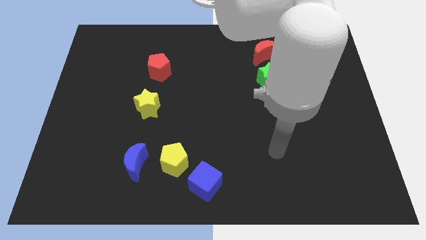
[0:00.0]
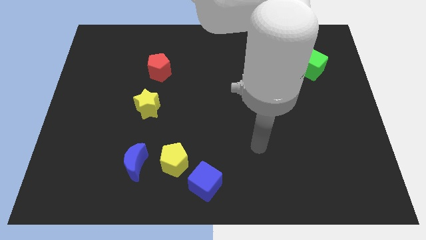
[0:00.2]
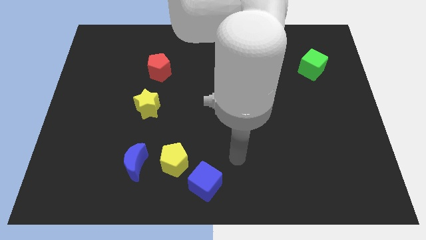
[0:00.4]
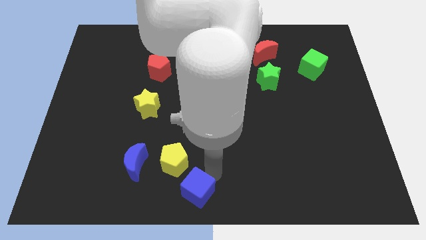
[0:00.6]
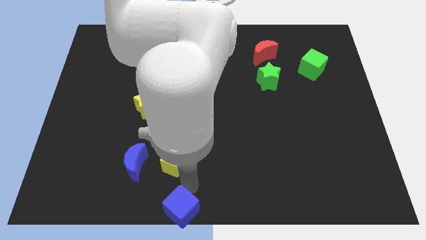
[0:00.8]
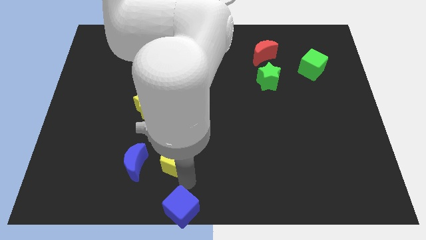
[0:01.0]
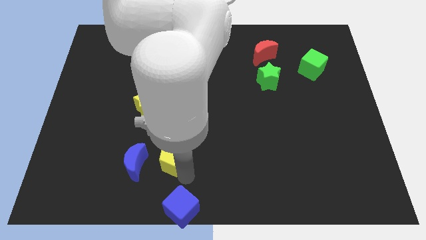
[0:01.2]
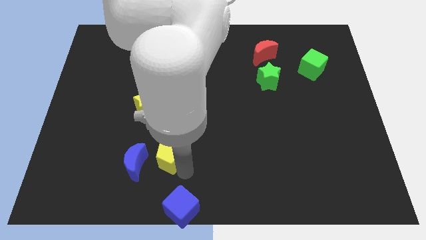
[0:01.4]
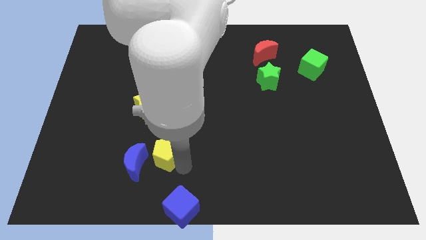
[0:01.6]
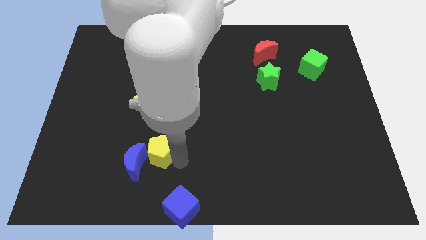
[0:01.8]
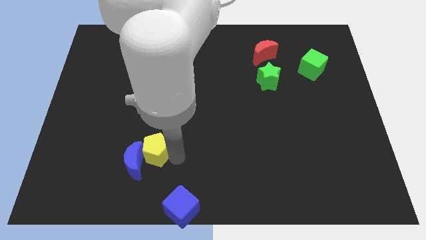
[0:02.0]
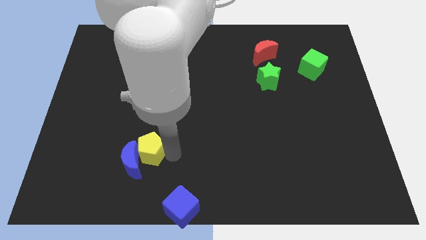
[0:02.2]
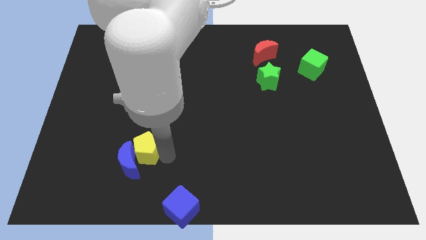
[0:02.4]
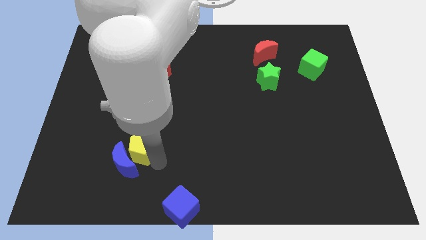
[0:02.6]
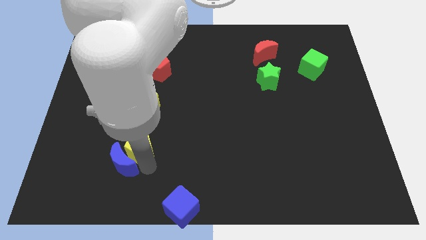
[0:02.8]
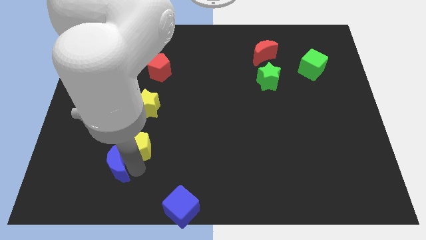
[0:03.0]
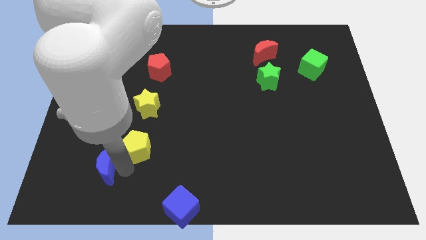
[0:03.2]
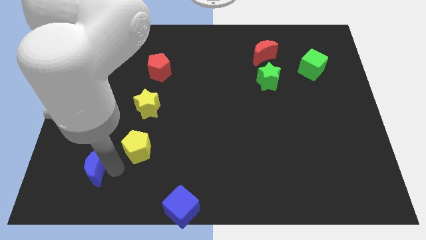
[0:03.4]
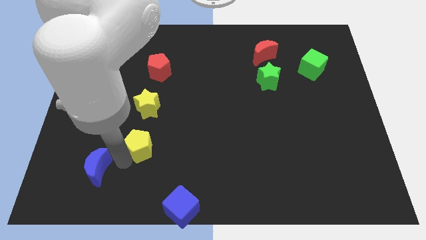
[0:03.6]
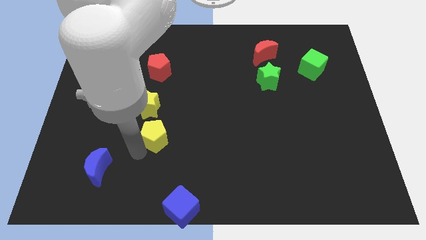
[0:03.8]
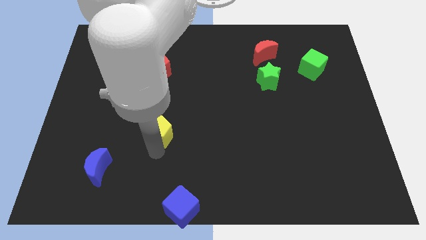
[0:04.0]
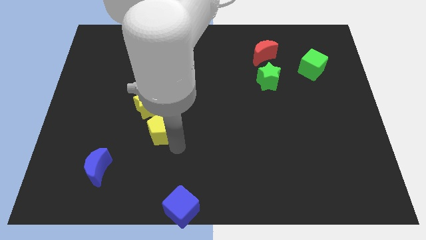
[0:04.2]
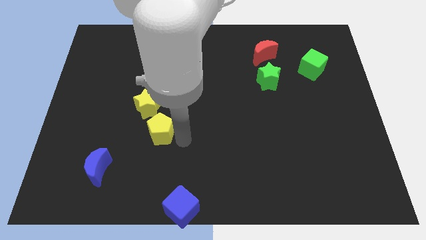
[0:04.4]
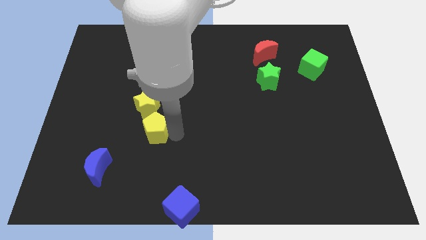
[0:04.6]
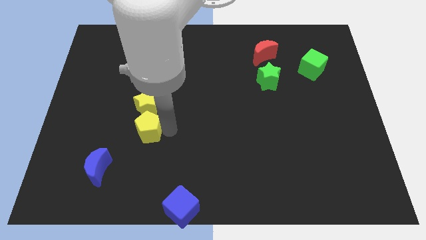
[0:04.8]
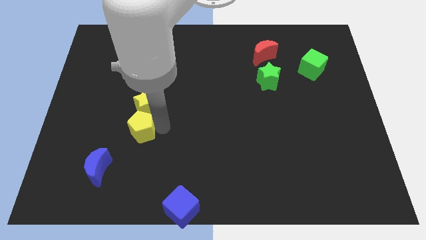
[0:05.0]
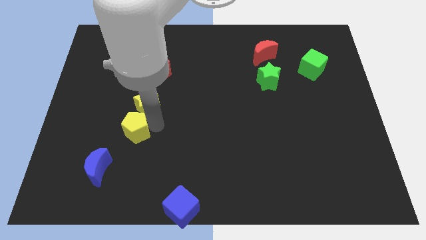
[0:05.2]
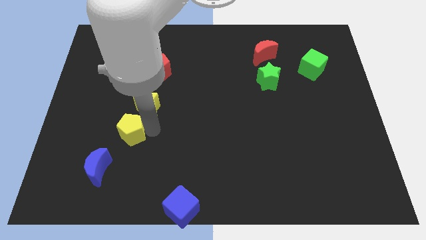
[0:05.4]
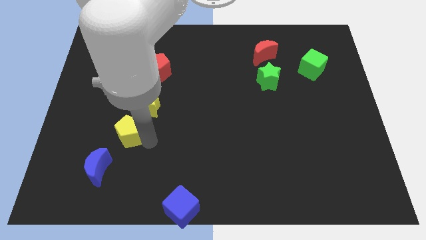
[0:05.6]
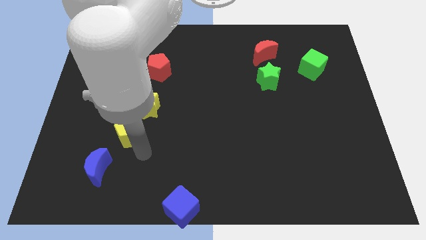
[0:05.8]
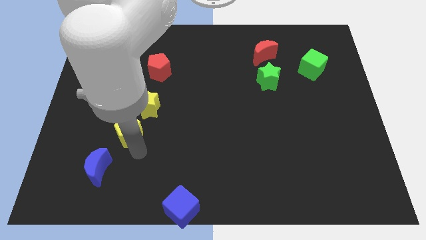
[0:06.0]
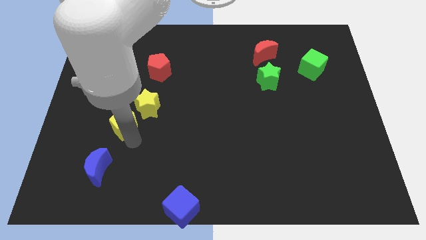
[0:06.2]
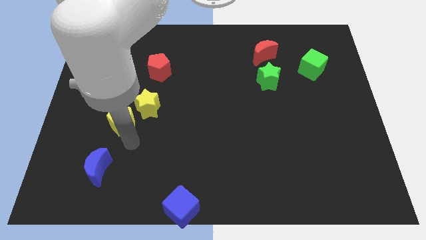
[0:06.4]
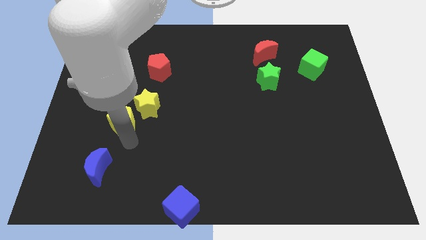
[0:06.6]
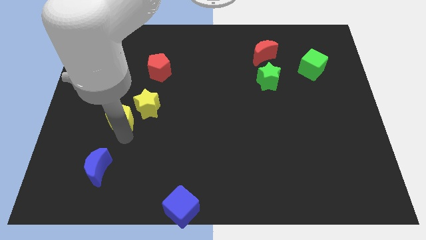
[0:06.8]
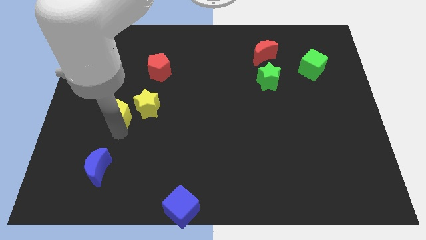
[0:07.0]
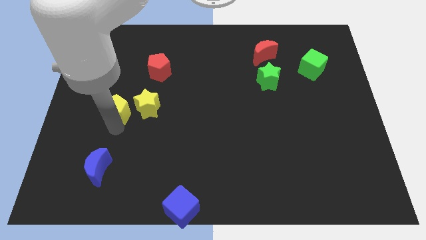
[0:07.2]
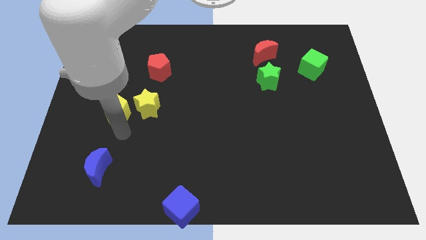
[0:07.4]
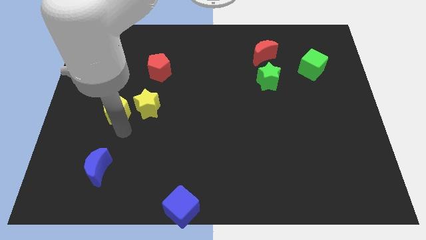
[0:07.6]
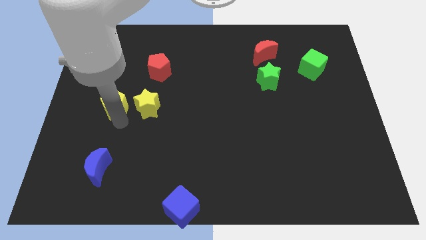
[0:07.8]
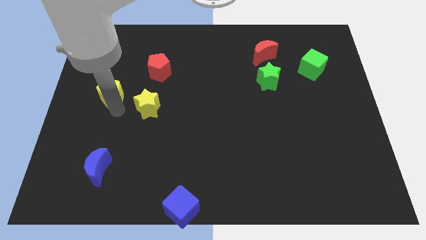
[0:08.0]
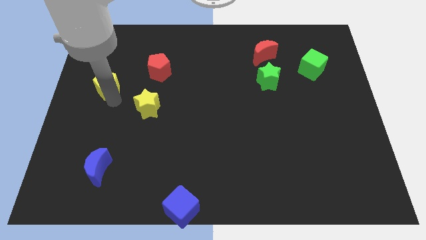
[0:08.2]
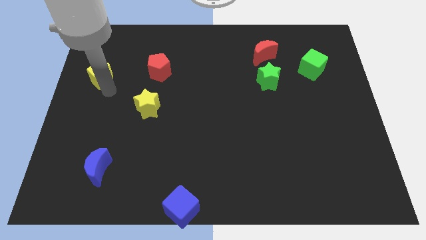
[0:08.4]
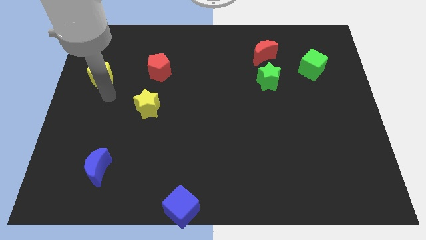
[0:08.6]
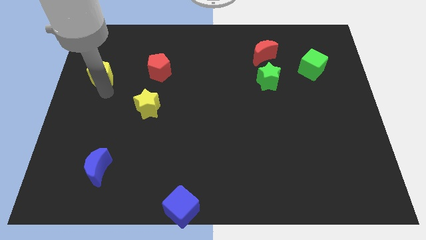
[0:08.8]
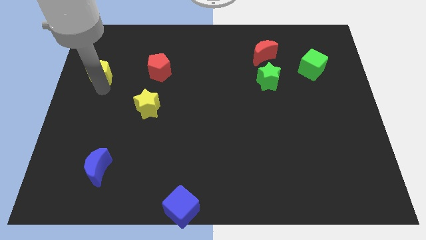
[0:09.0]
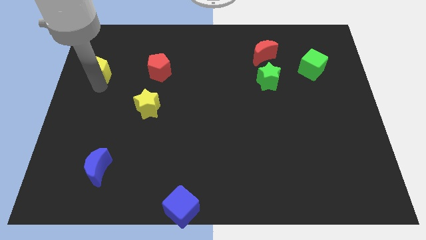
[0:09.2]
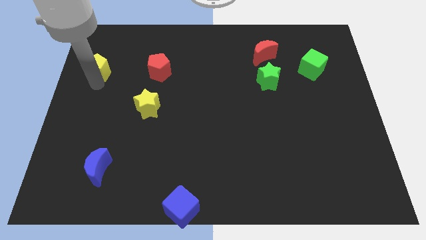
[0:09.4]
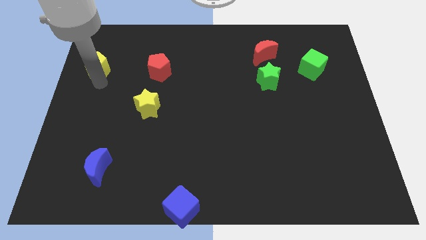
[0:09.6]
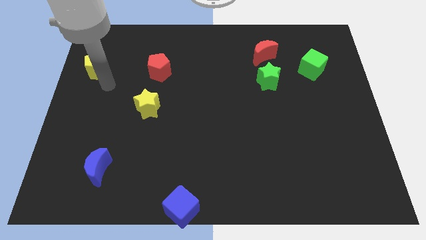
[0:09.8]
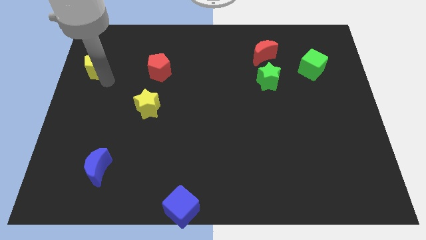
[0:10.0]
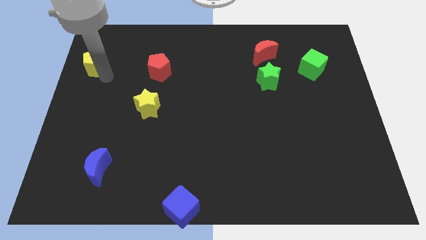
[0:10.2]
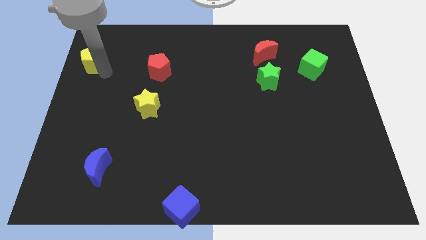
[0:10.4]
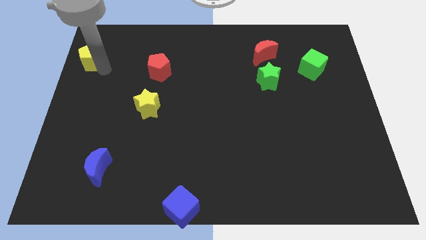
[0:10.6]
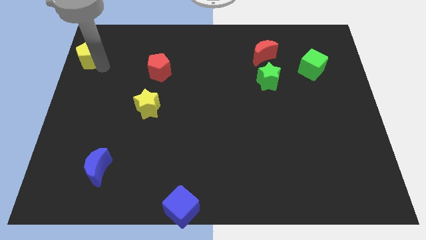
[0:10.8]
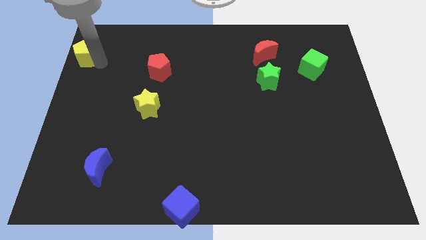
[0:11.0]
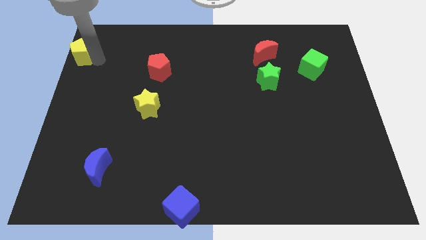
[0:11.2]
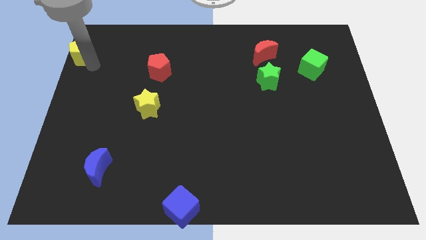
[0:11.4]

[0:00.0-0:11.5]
slide the yellow pentagon to the upper left corner

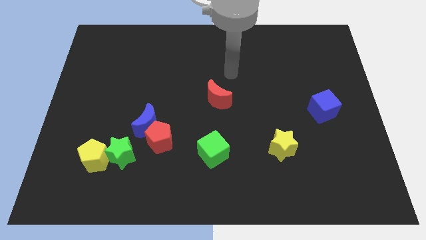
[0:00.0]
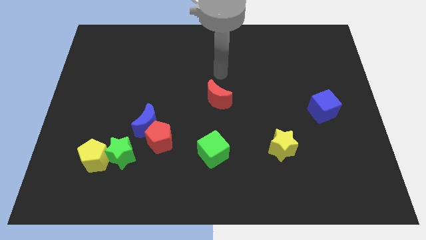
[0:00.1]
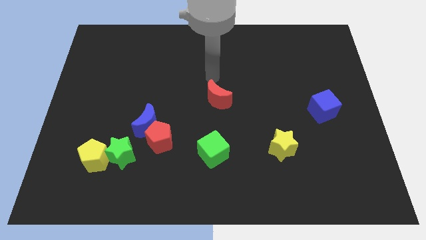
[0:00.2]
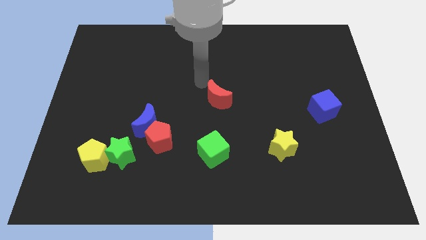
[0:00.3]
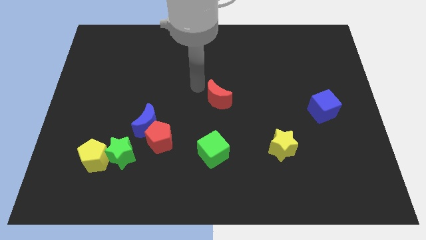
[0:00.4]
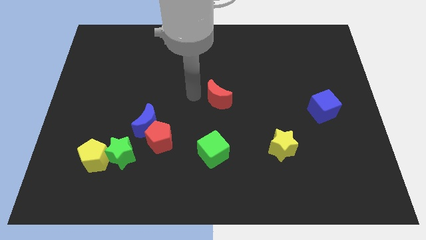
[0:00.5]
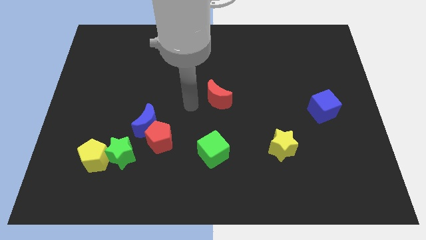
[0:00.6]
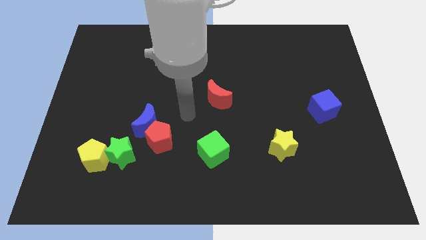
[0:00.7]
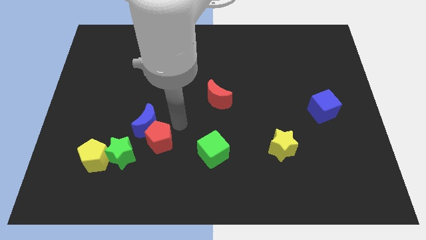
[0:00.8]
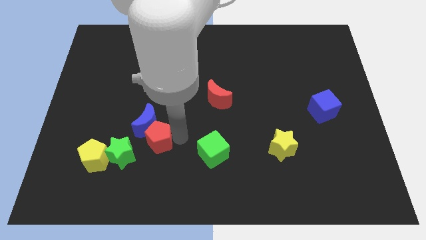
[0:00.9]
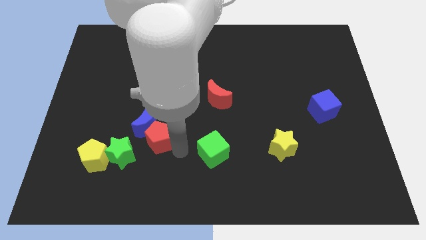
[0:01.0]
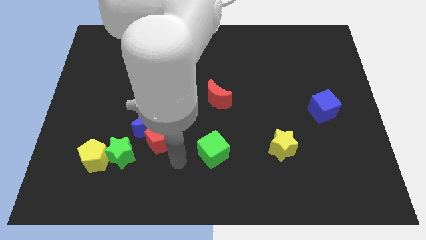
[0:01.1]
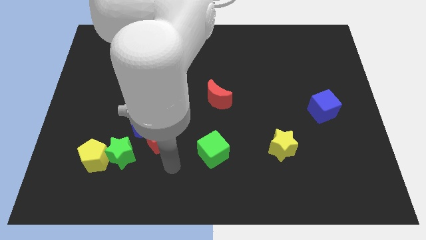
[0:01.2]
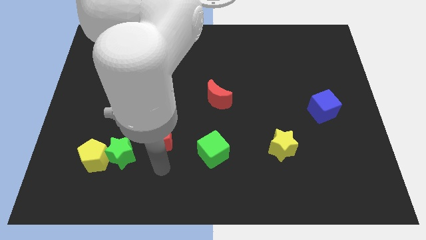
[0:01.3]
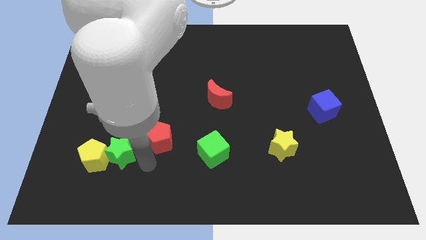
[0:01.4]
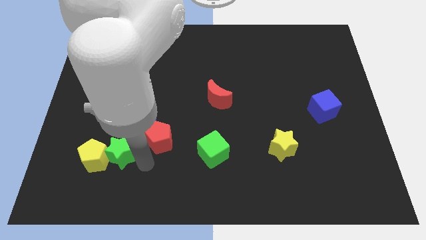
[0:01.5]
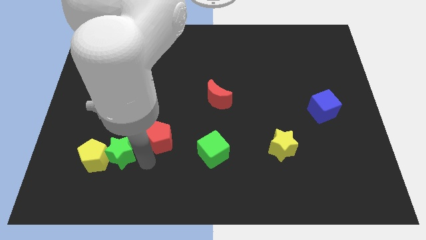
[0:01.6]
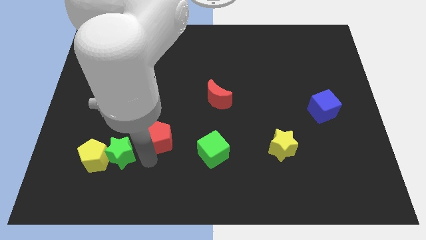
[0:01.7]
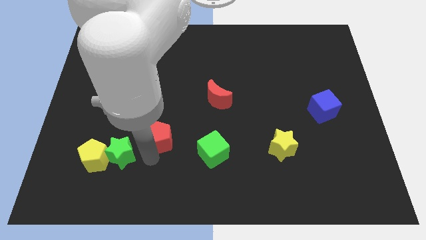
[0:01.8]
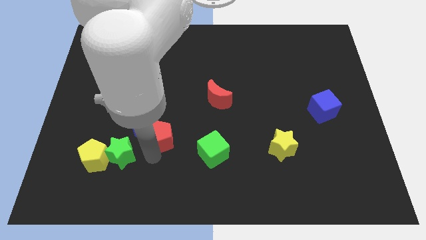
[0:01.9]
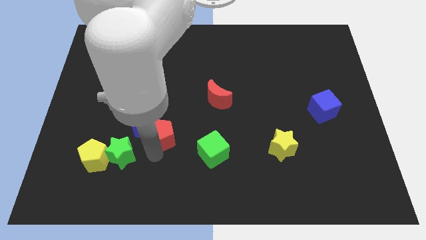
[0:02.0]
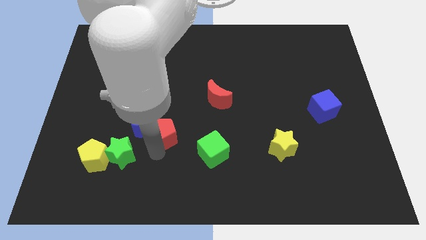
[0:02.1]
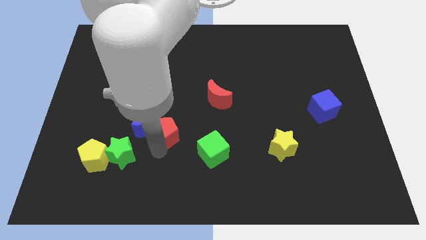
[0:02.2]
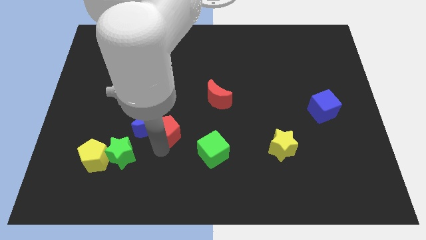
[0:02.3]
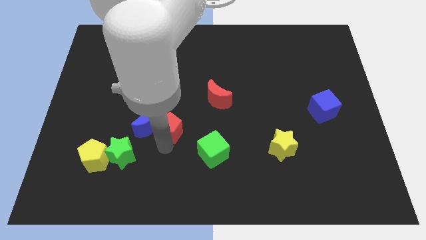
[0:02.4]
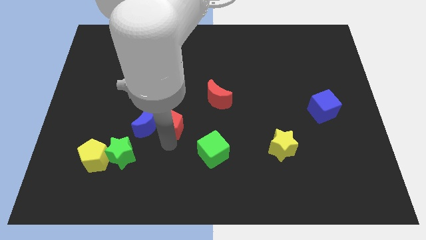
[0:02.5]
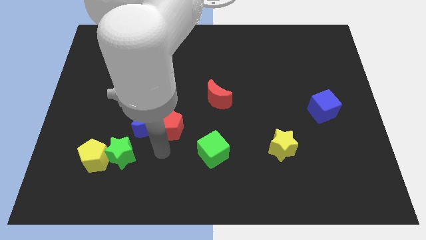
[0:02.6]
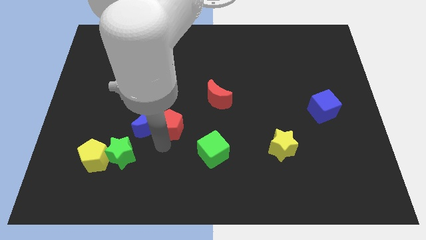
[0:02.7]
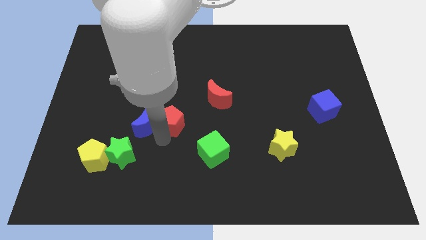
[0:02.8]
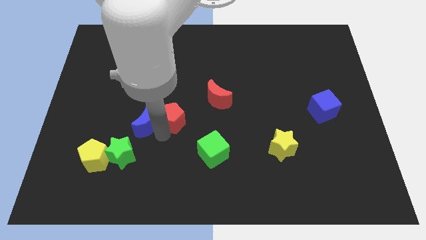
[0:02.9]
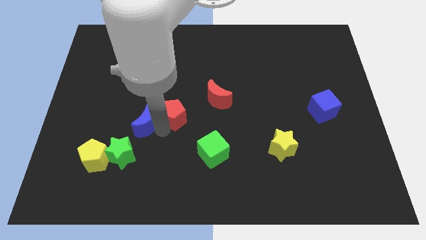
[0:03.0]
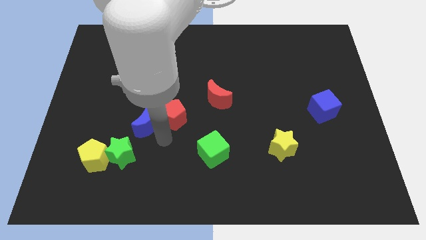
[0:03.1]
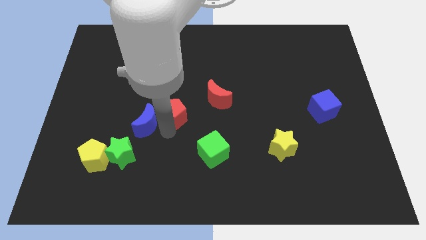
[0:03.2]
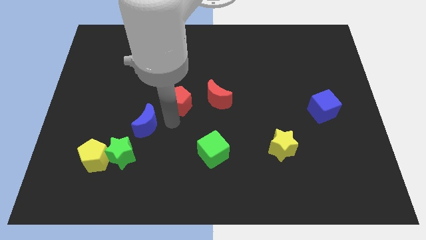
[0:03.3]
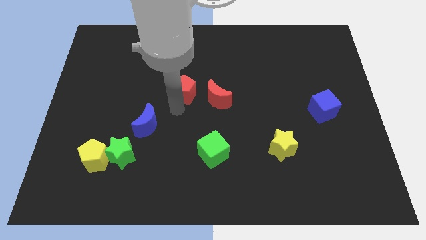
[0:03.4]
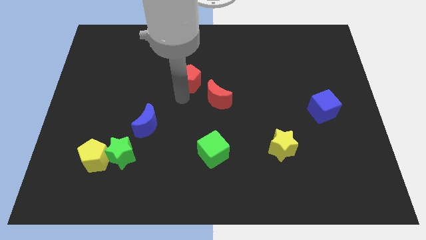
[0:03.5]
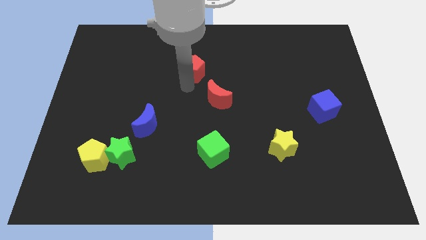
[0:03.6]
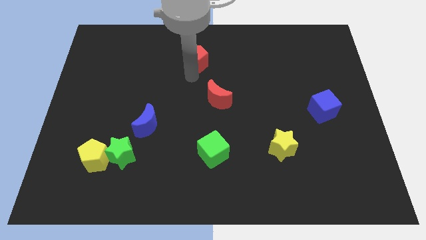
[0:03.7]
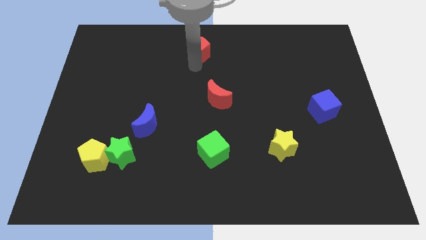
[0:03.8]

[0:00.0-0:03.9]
move the red pentagon to the top
